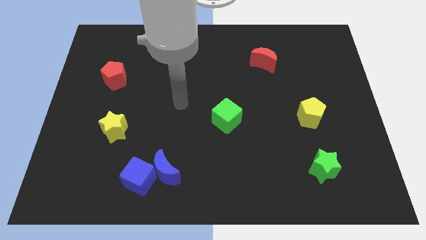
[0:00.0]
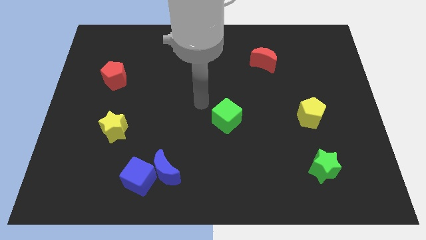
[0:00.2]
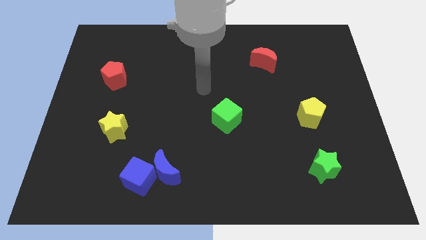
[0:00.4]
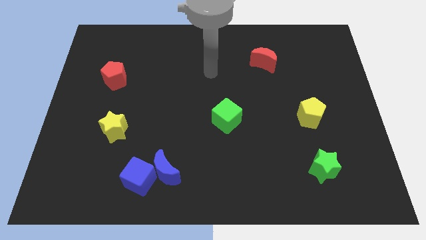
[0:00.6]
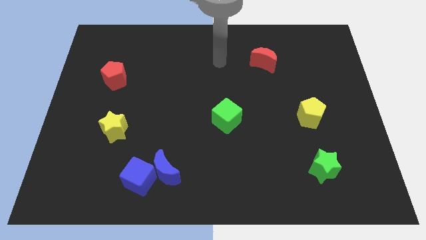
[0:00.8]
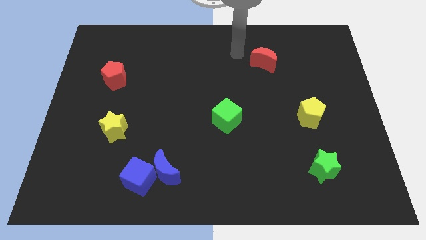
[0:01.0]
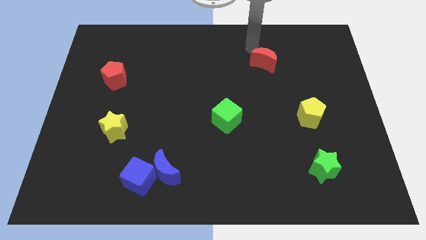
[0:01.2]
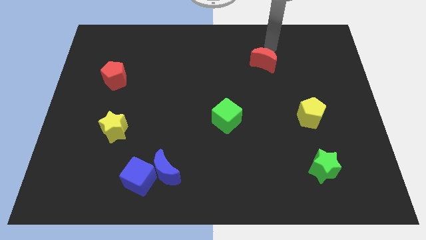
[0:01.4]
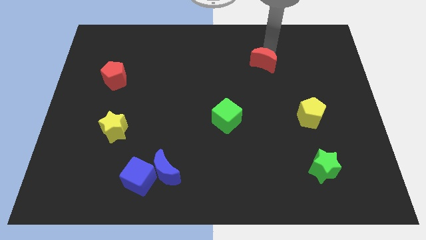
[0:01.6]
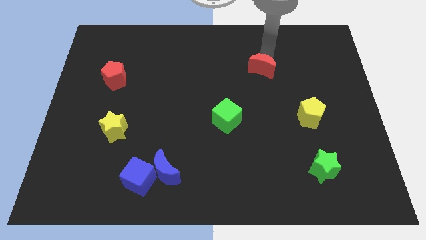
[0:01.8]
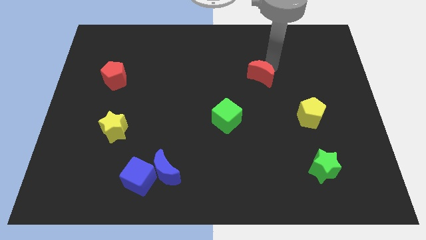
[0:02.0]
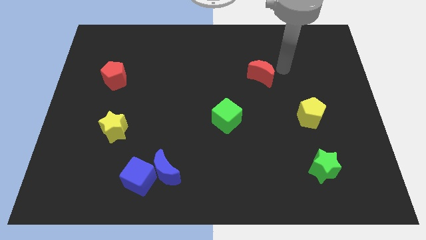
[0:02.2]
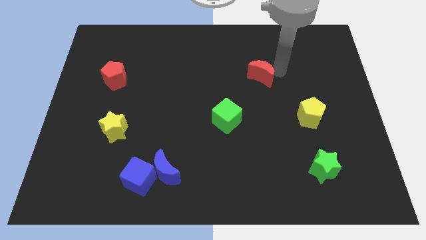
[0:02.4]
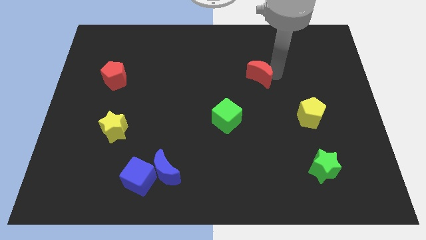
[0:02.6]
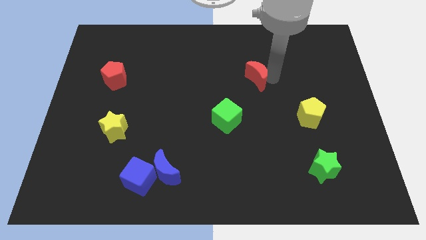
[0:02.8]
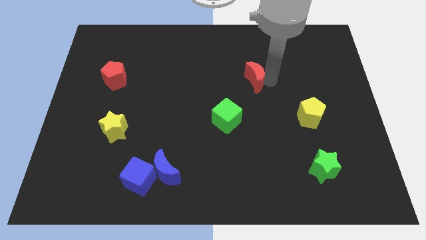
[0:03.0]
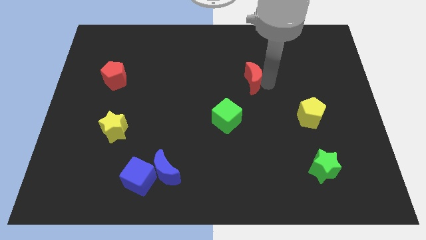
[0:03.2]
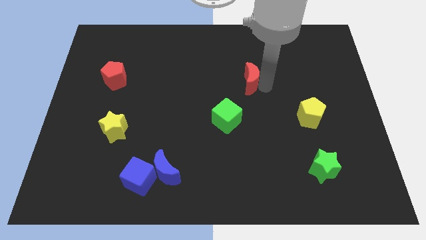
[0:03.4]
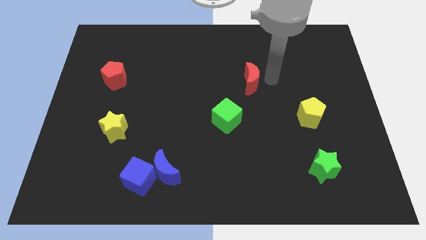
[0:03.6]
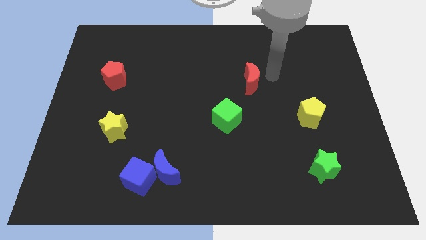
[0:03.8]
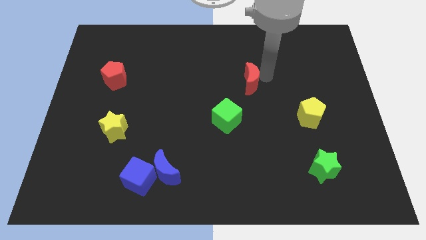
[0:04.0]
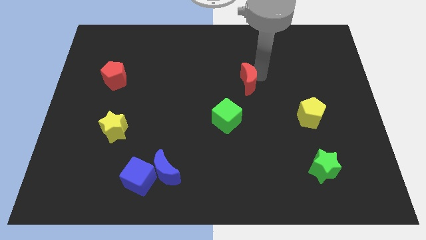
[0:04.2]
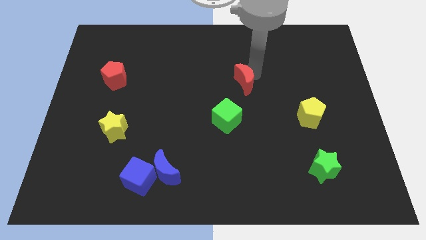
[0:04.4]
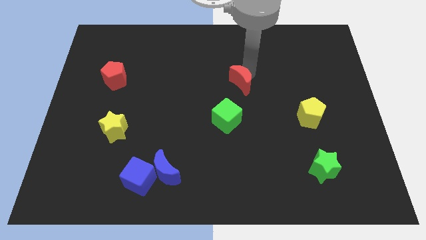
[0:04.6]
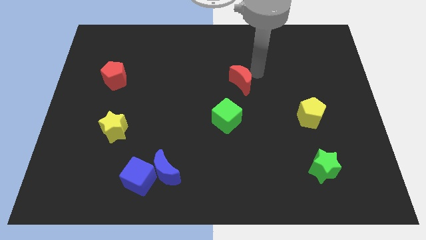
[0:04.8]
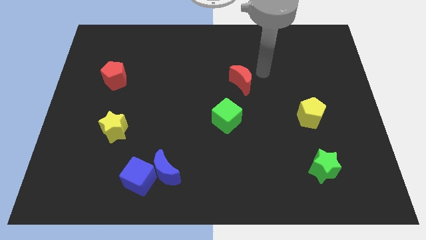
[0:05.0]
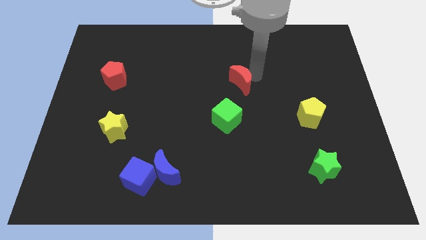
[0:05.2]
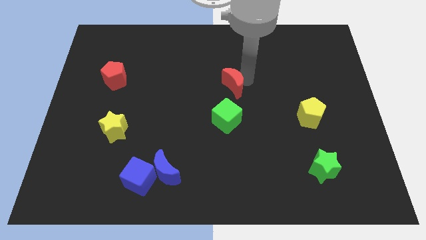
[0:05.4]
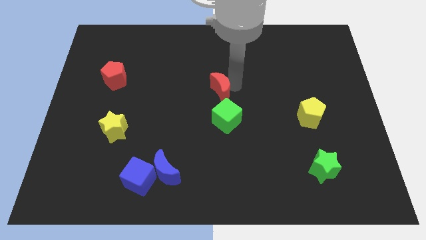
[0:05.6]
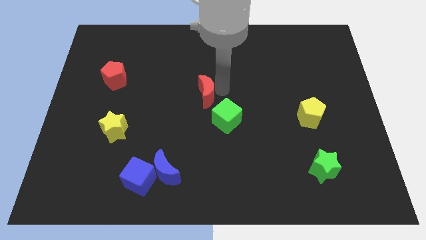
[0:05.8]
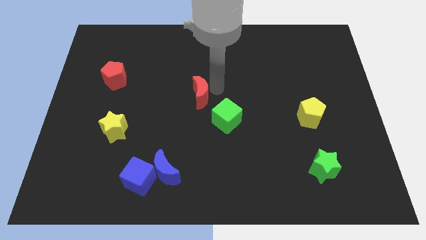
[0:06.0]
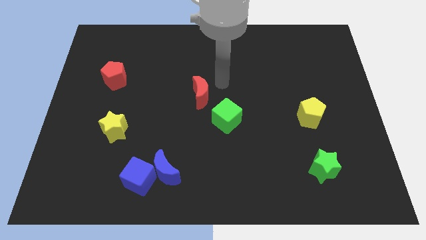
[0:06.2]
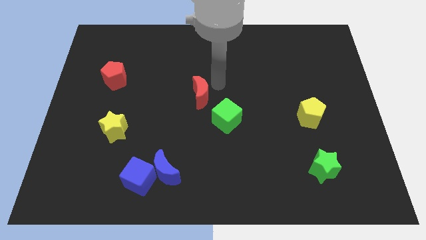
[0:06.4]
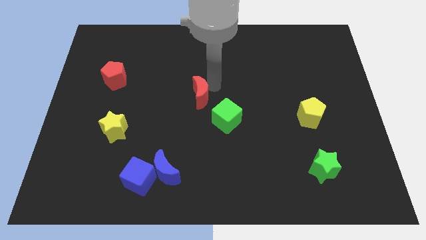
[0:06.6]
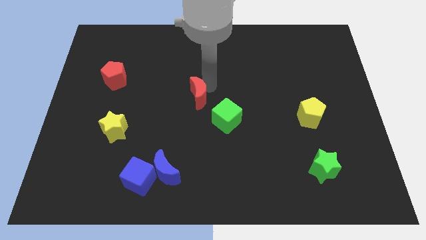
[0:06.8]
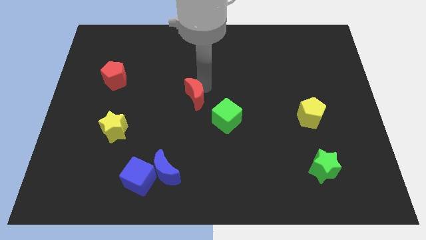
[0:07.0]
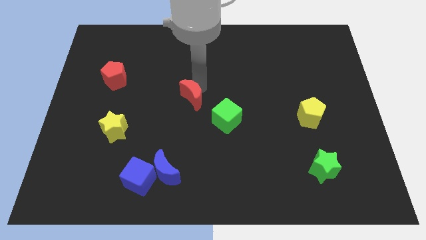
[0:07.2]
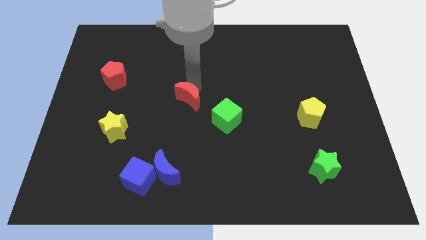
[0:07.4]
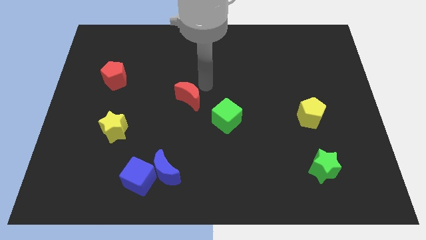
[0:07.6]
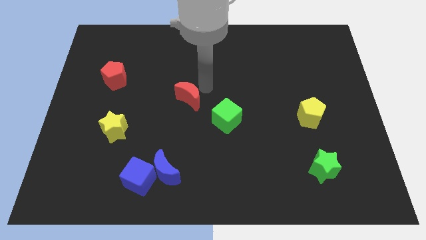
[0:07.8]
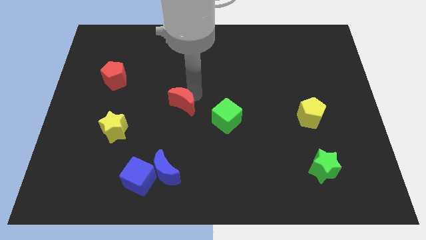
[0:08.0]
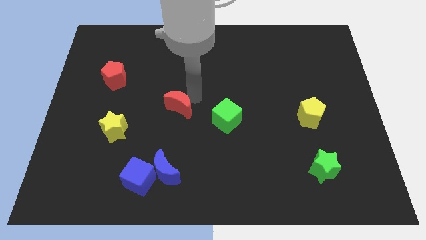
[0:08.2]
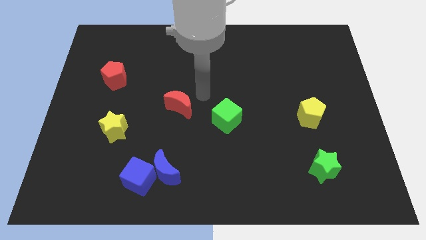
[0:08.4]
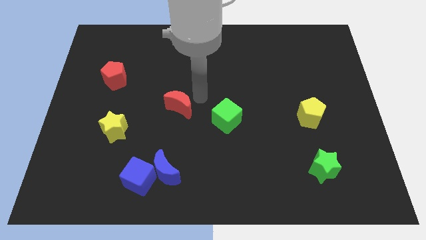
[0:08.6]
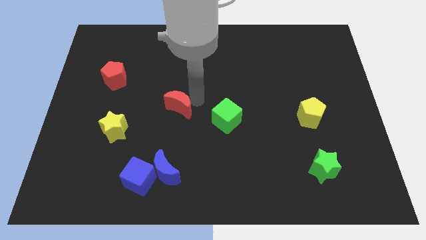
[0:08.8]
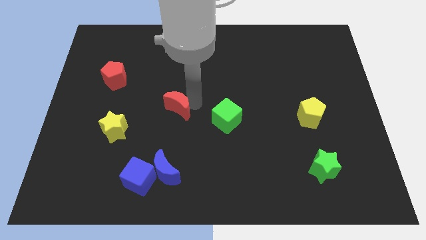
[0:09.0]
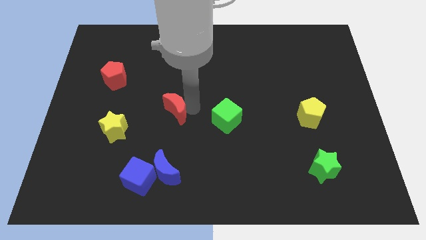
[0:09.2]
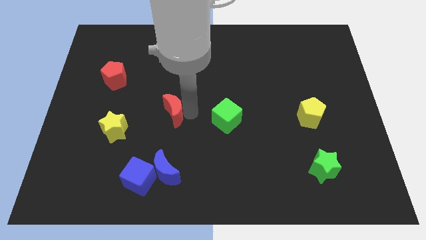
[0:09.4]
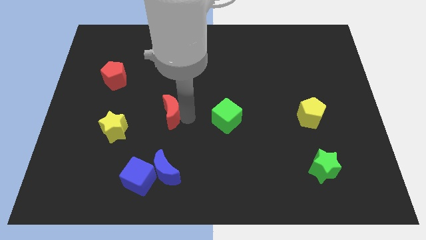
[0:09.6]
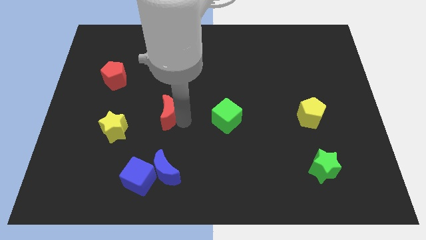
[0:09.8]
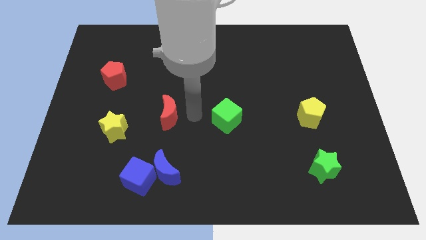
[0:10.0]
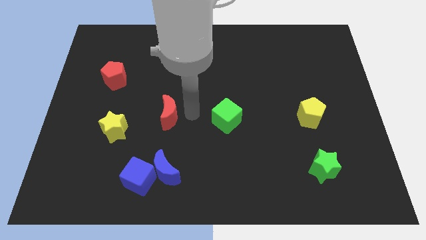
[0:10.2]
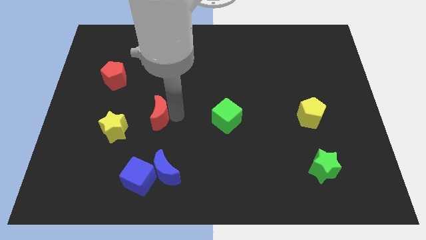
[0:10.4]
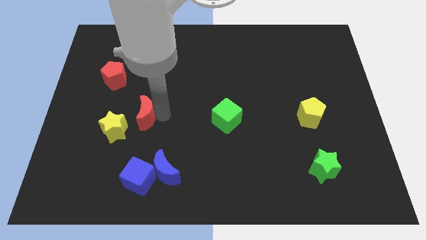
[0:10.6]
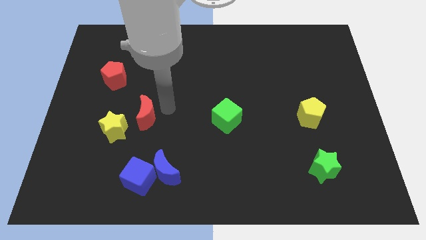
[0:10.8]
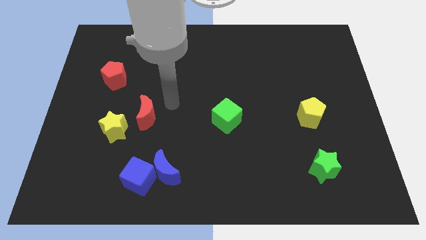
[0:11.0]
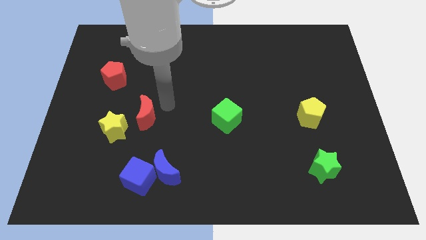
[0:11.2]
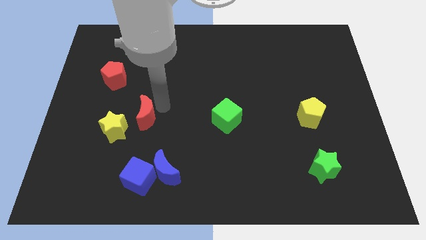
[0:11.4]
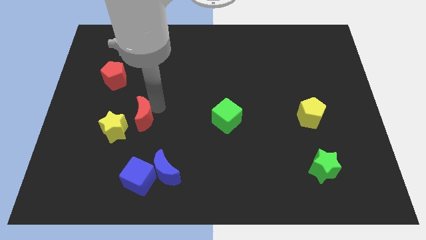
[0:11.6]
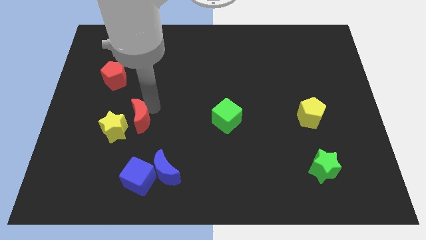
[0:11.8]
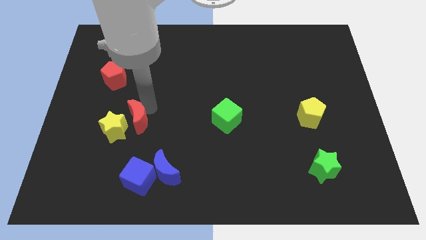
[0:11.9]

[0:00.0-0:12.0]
push the red moon to the yellow star
